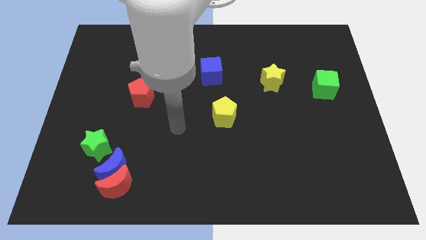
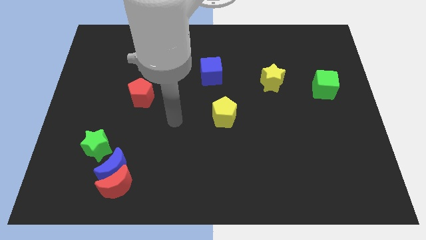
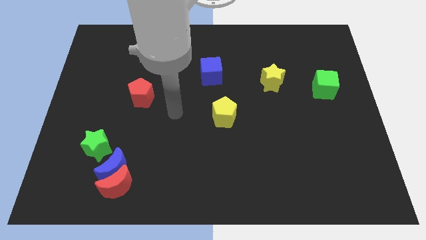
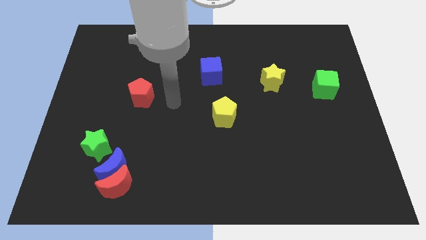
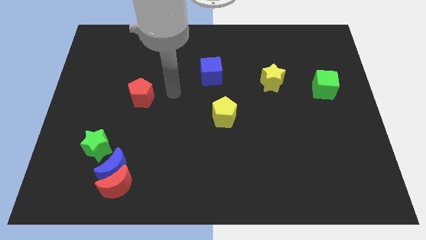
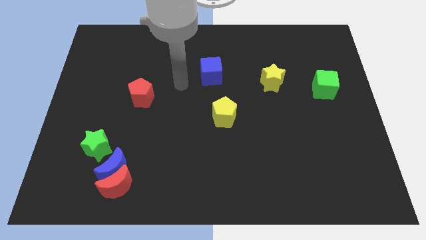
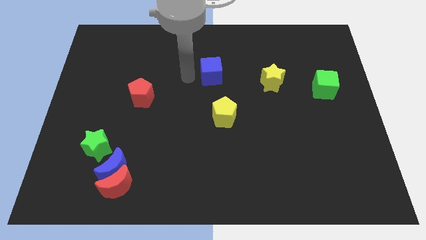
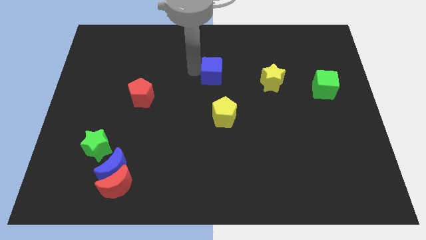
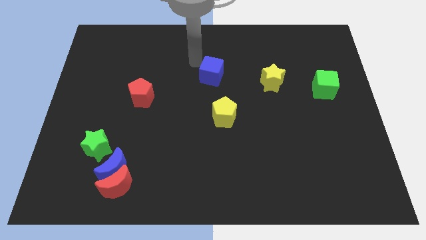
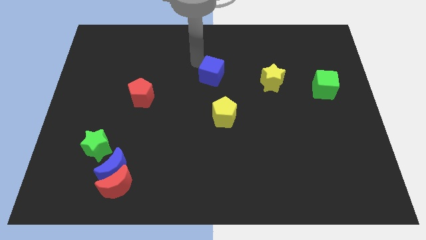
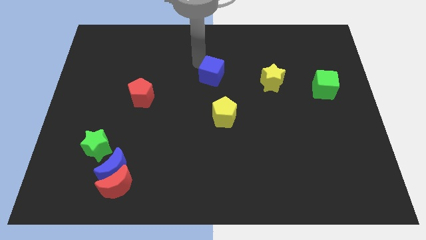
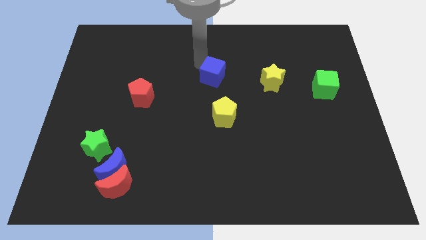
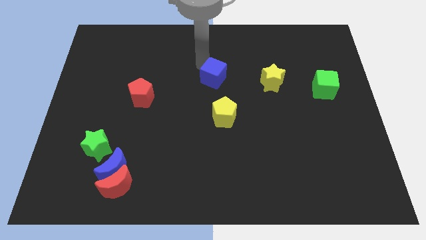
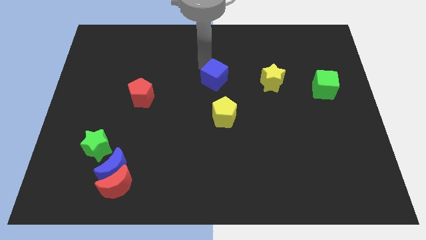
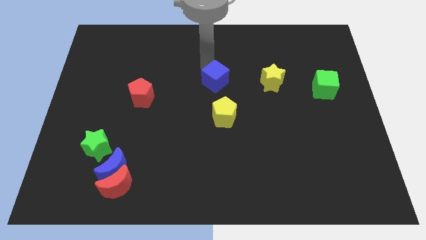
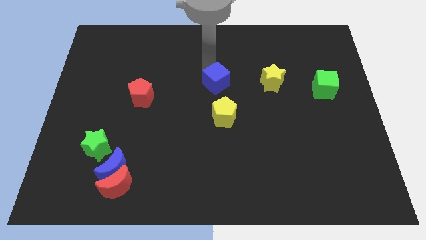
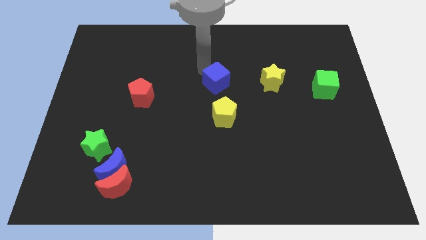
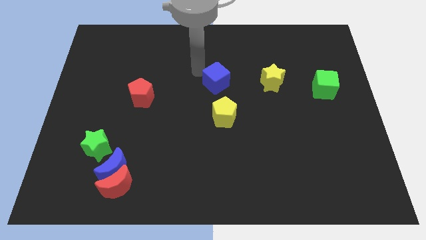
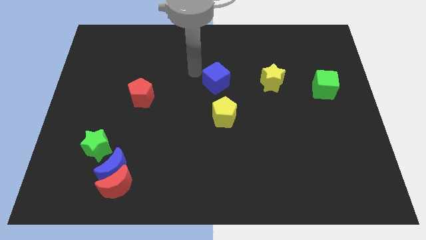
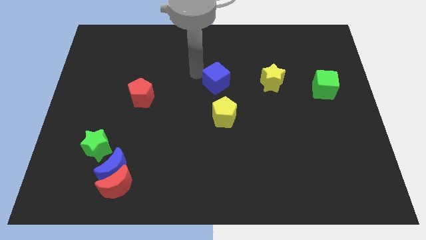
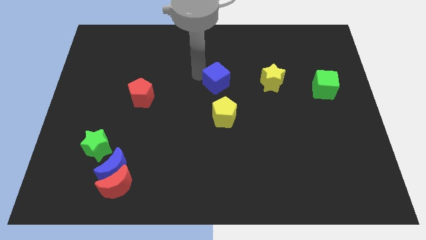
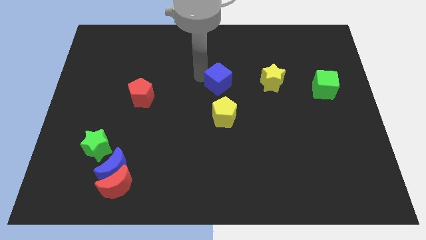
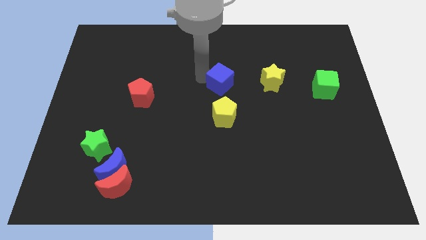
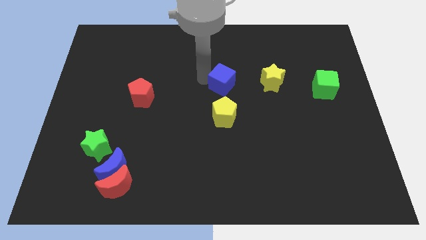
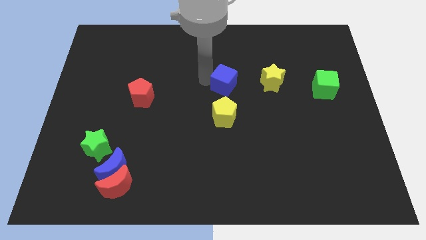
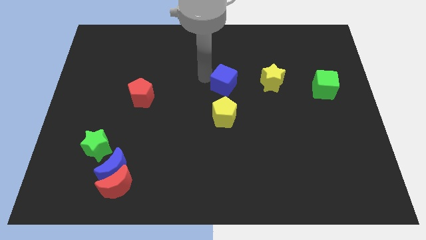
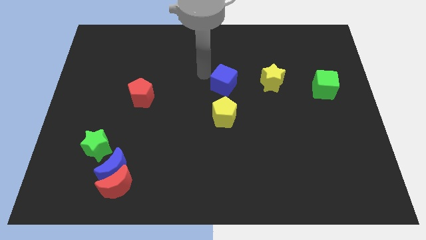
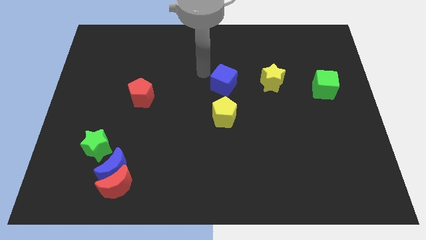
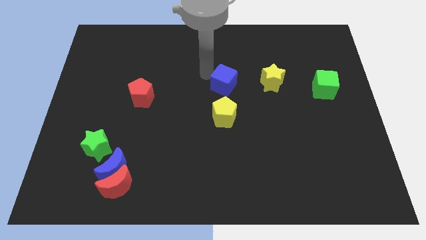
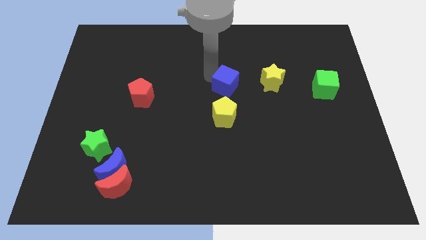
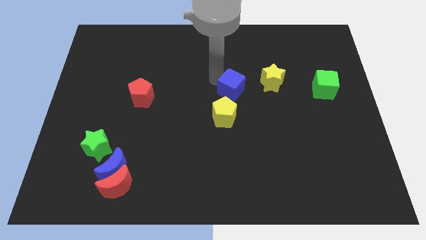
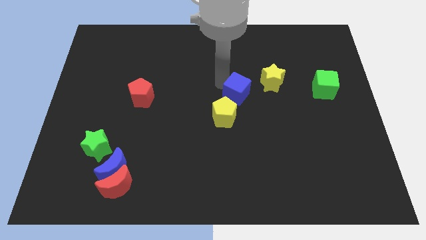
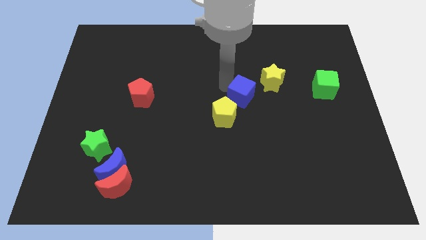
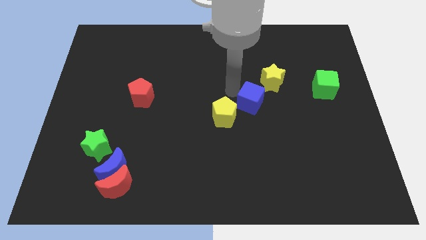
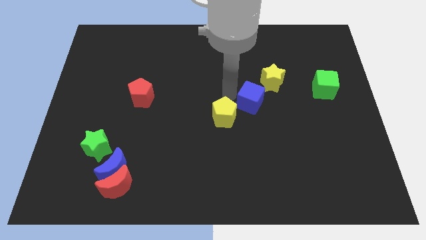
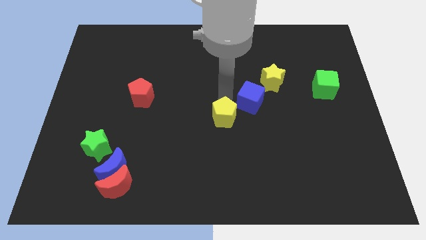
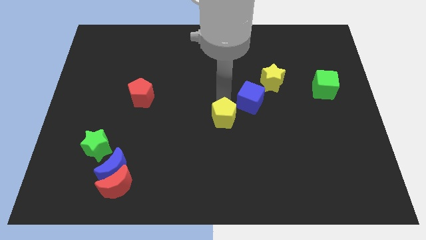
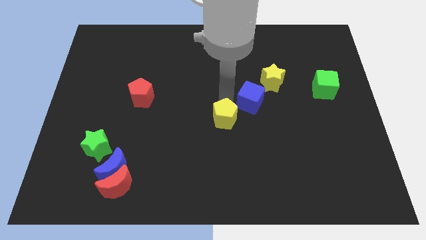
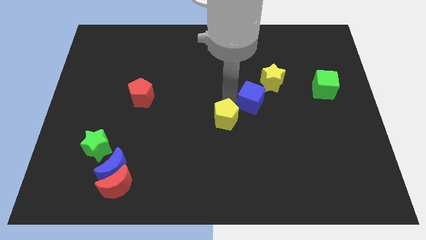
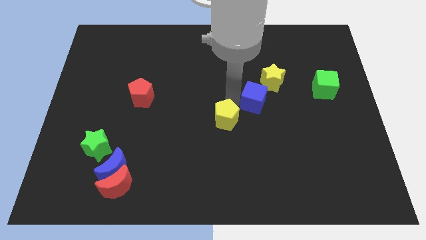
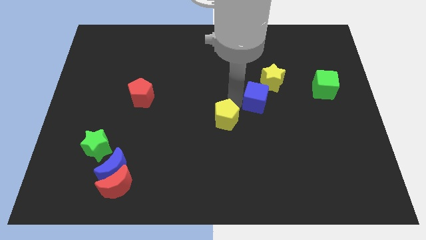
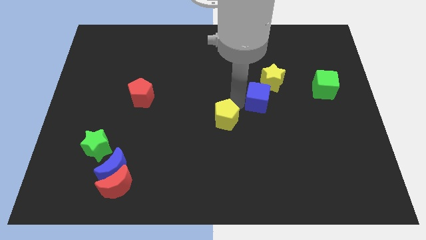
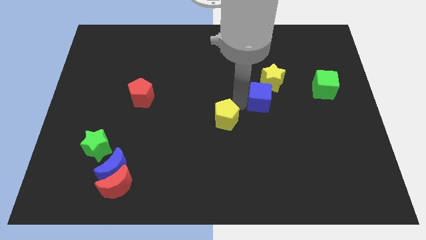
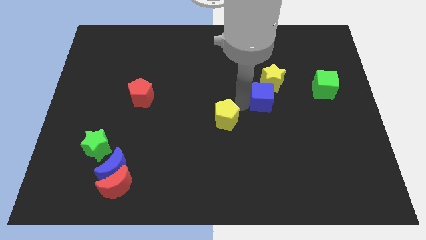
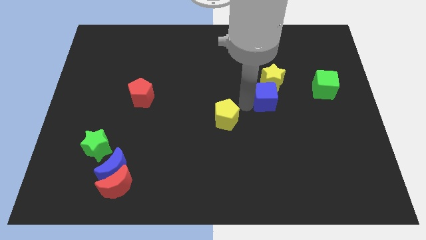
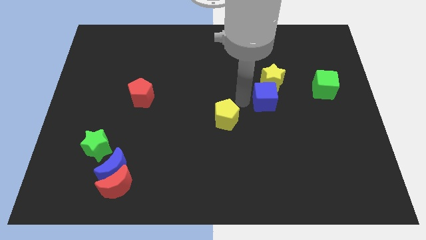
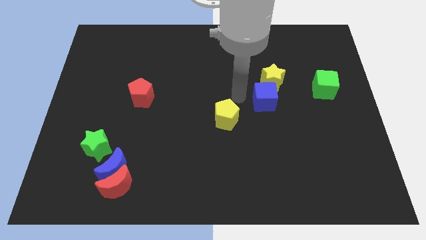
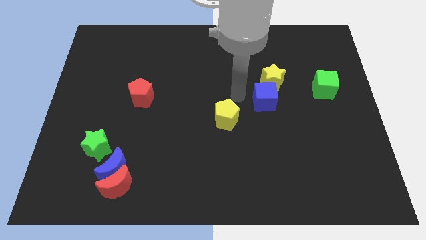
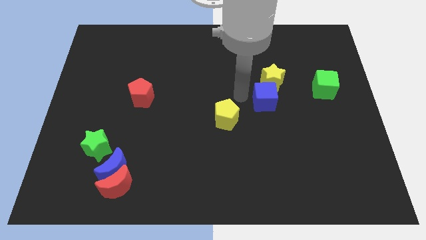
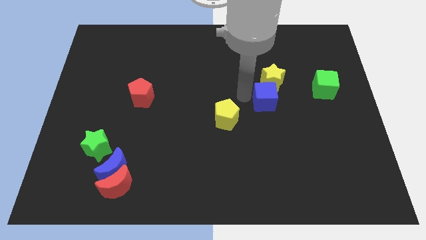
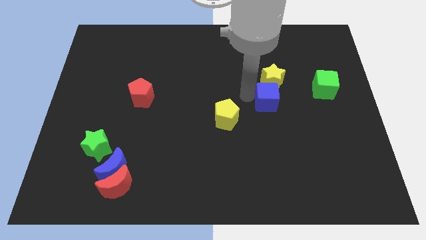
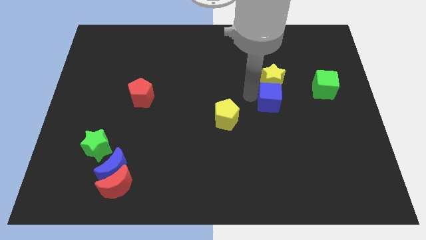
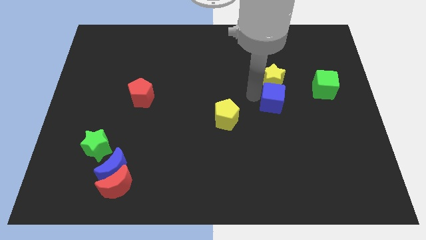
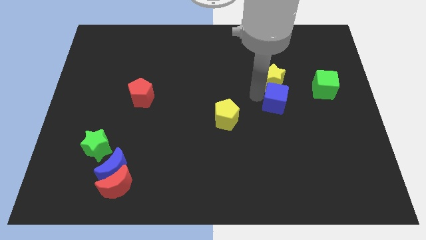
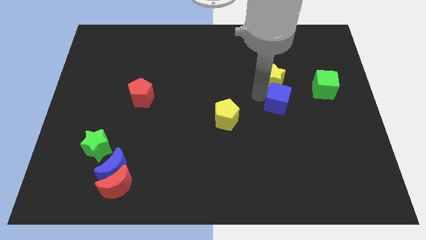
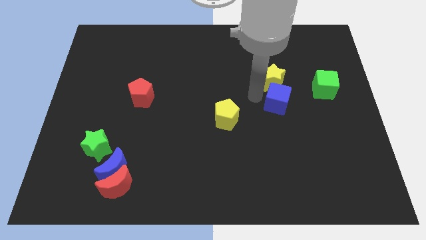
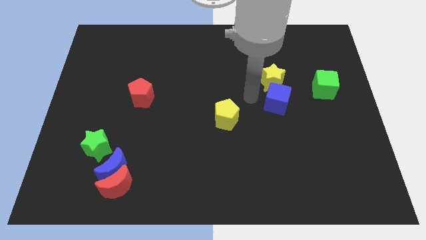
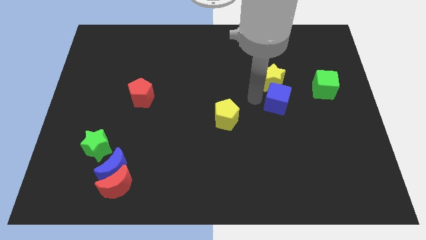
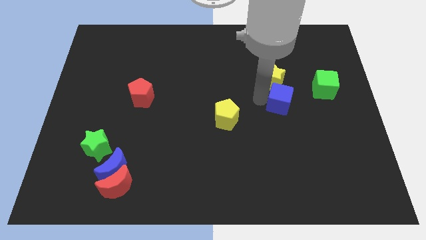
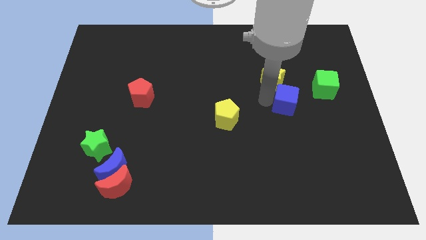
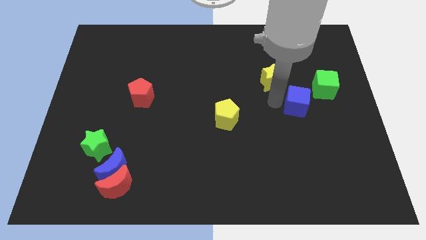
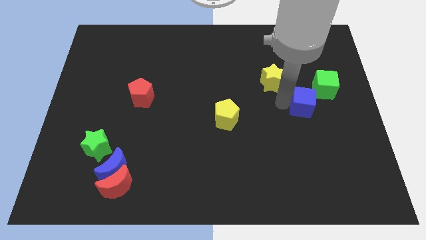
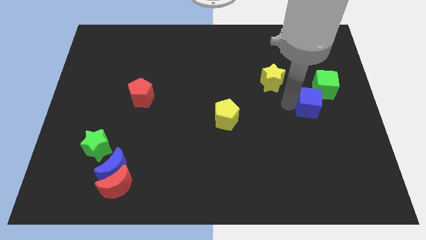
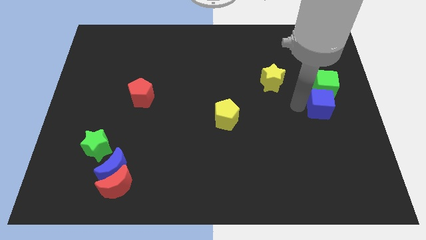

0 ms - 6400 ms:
push the blue cube to the center right
